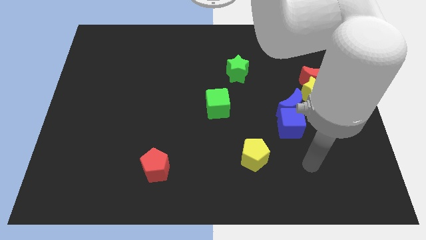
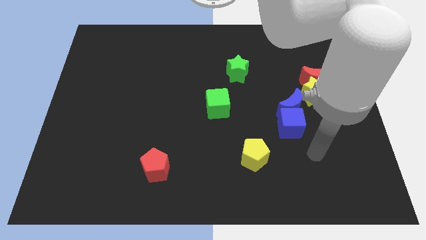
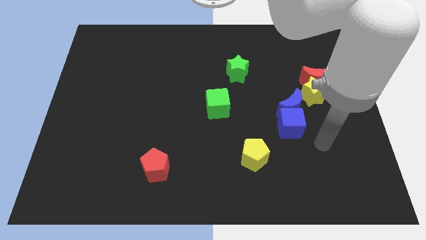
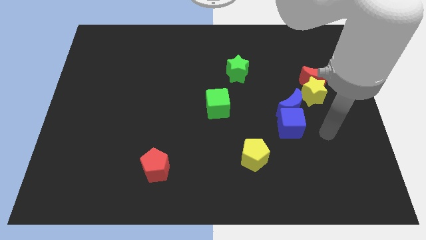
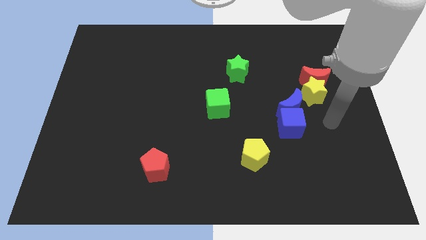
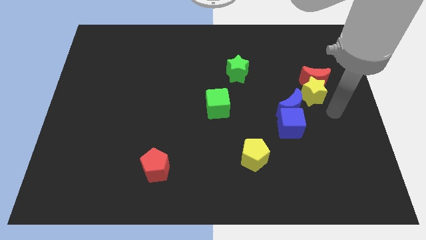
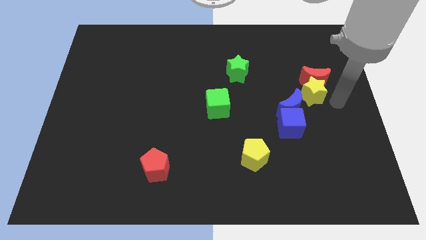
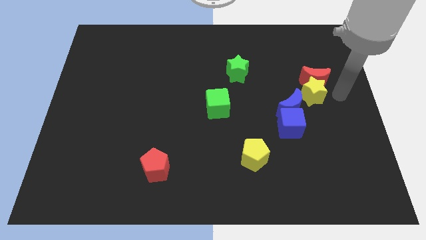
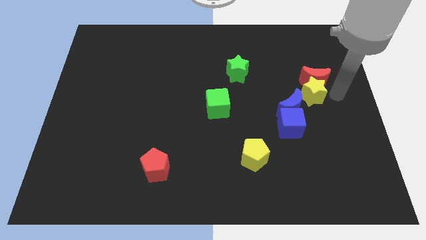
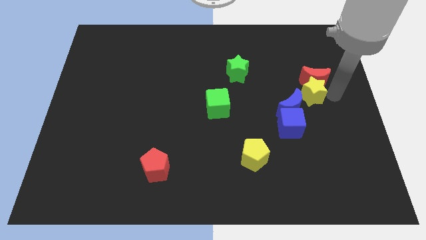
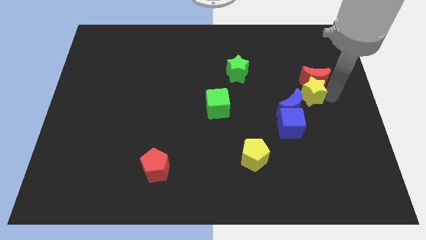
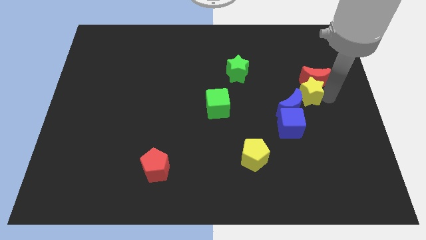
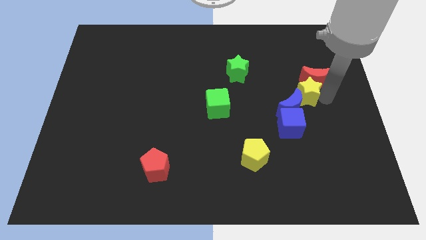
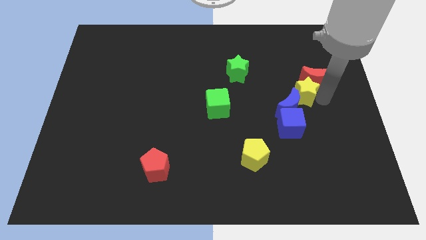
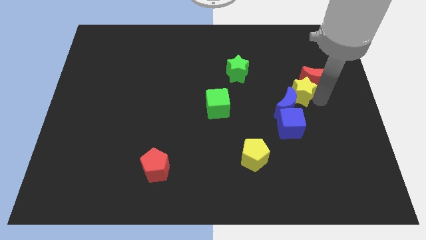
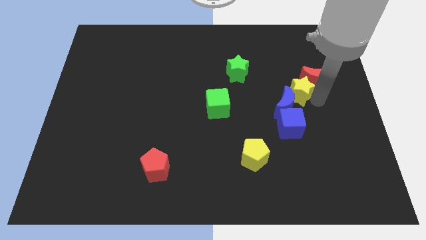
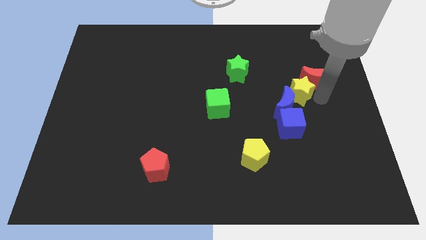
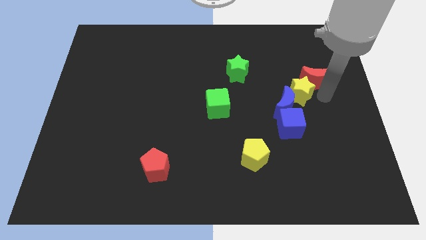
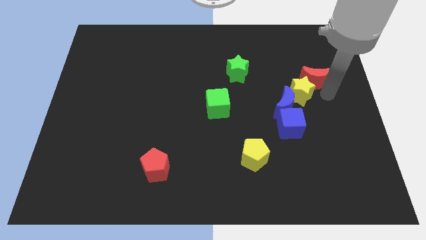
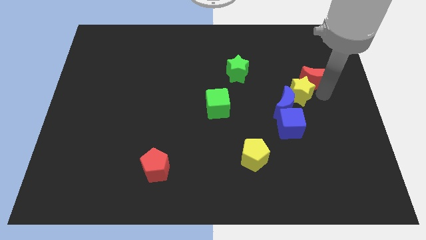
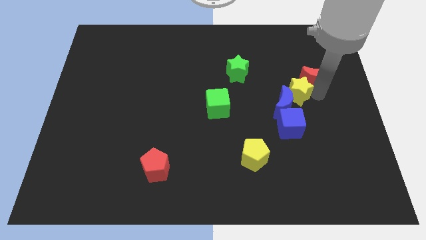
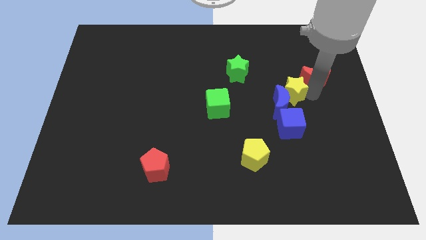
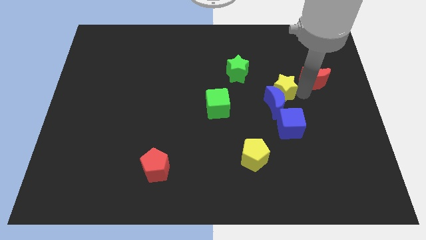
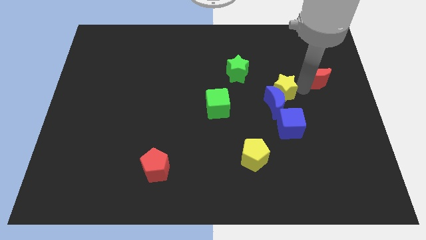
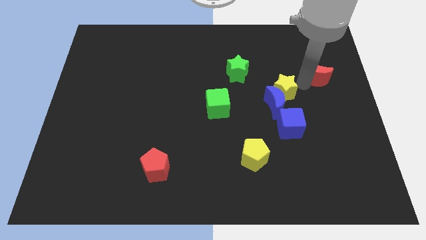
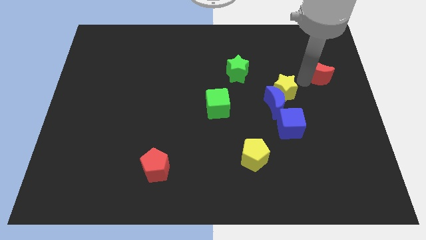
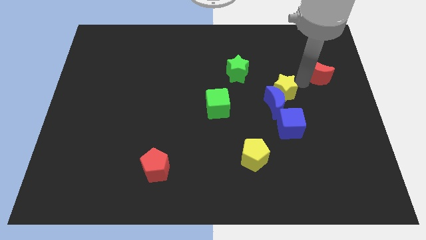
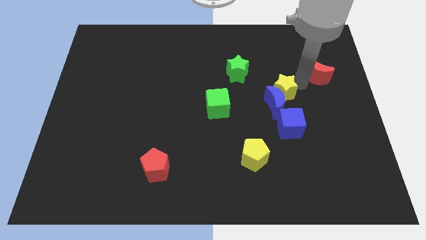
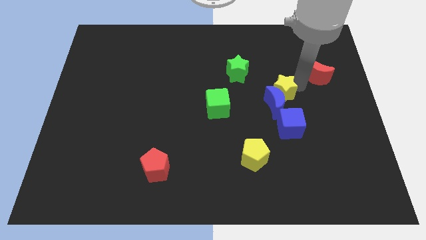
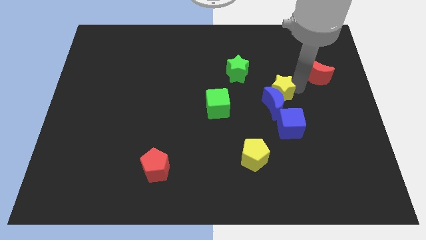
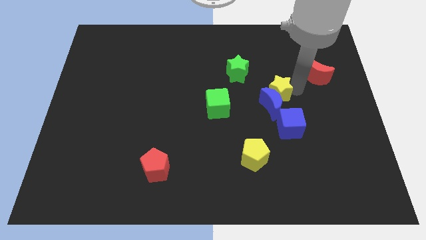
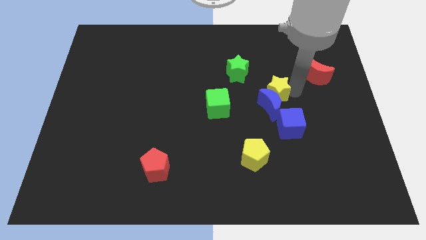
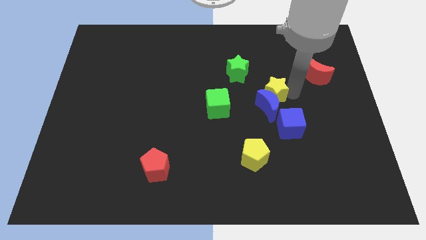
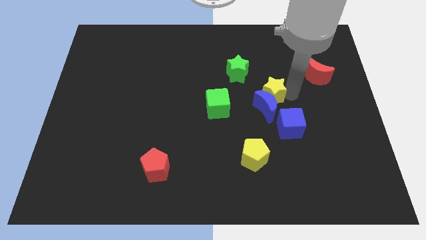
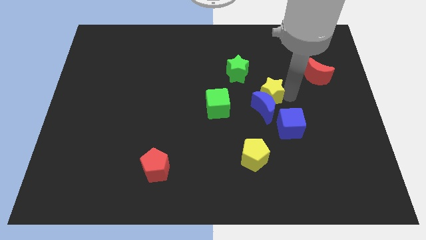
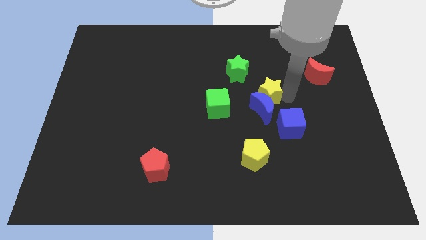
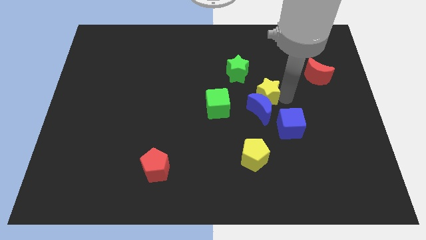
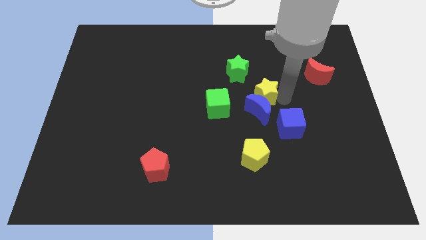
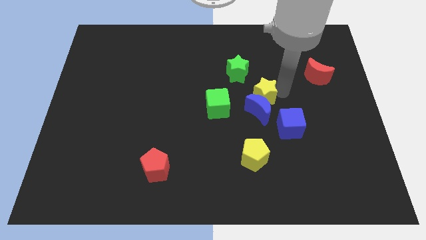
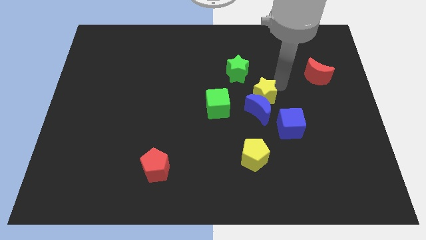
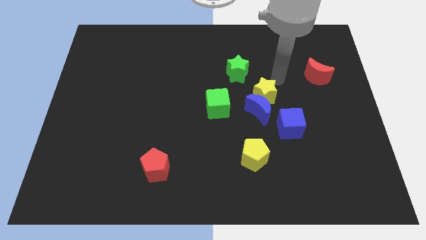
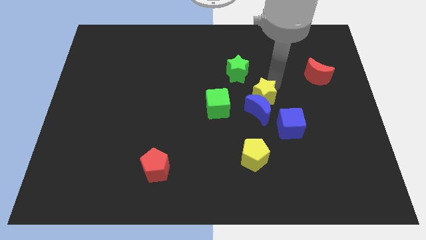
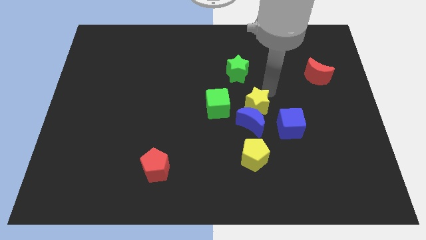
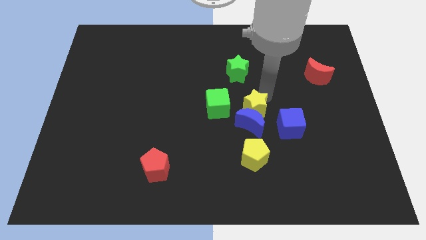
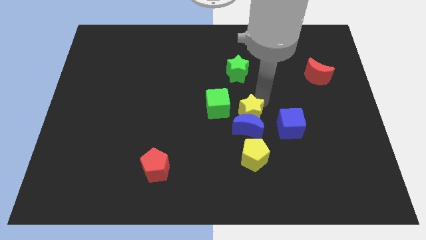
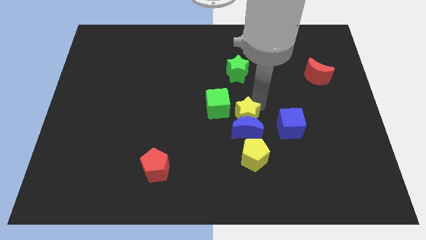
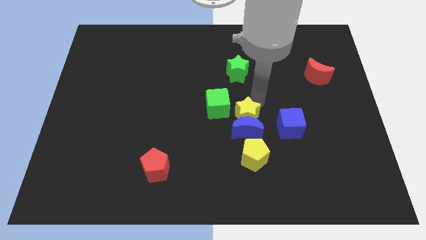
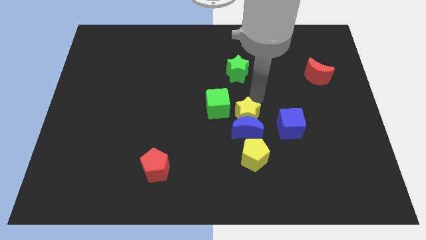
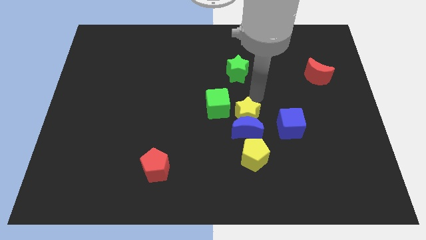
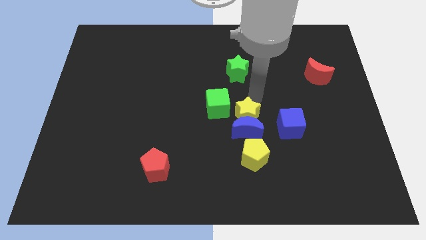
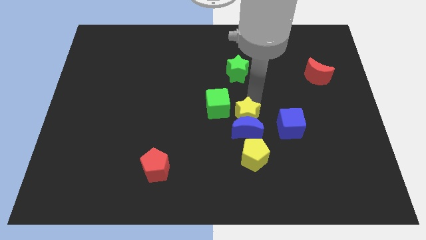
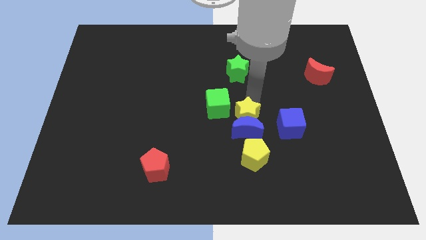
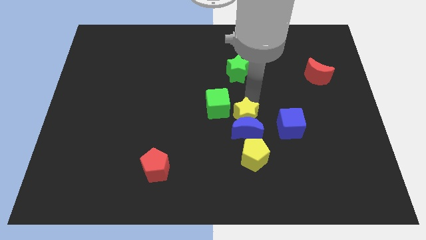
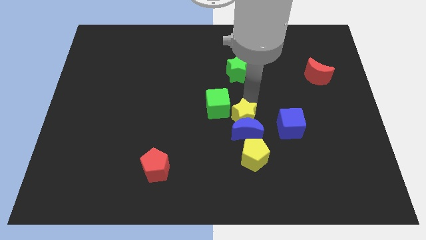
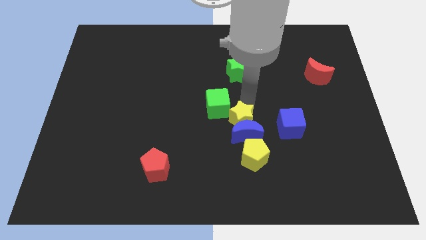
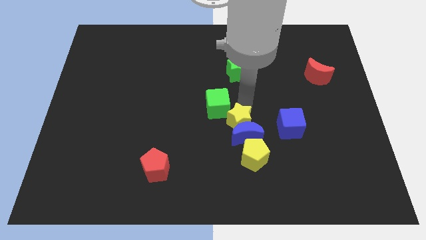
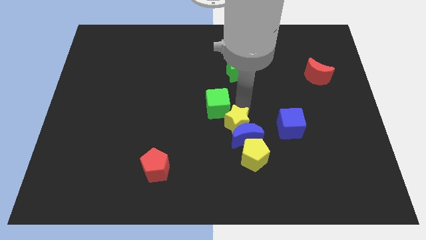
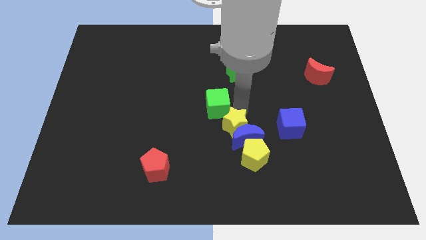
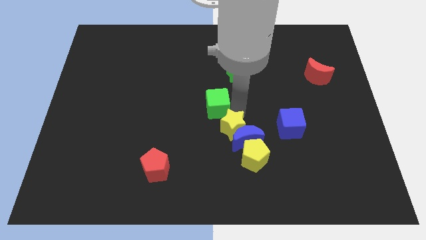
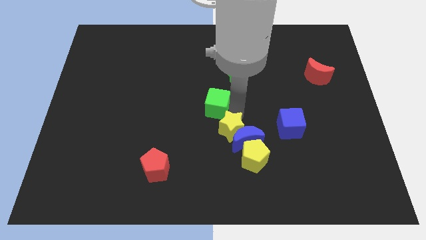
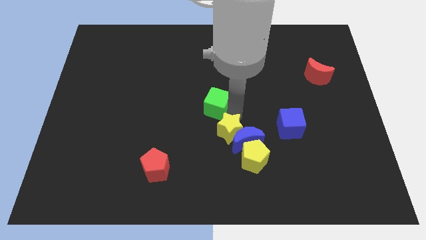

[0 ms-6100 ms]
push the yellow star downwards and to the left diagonally

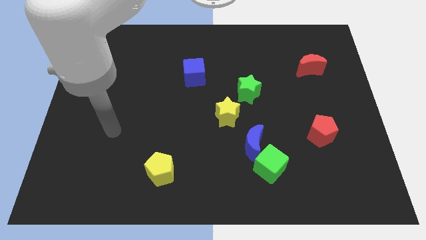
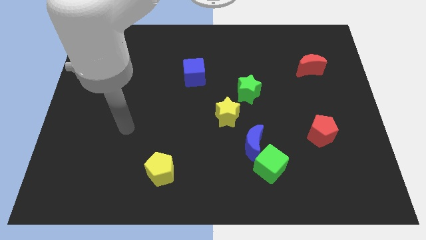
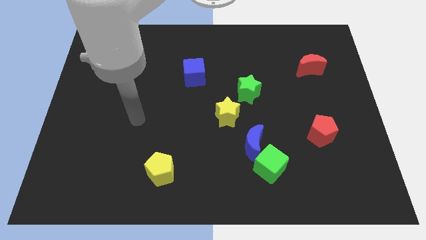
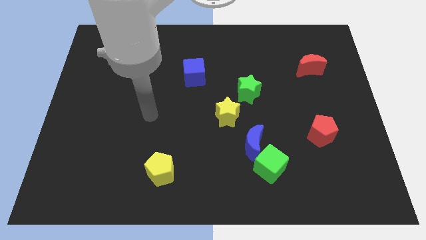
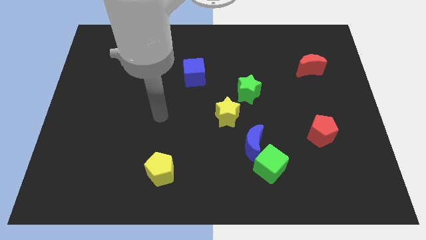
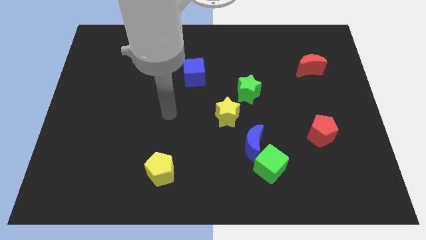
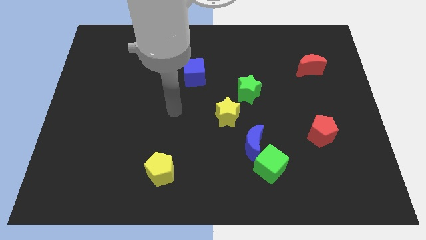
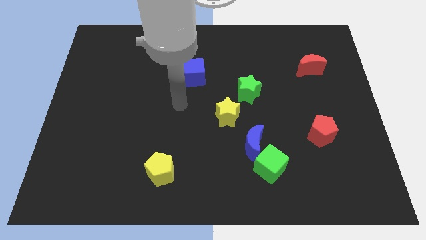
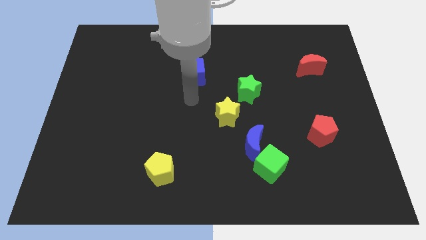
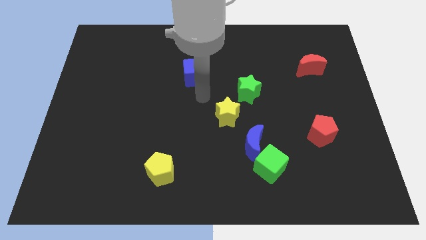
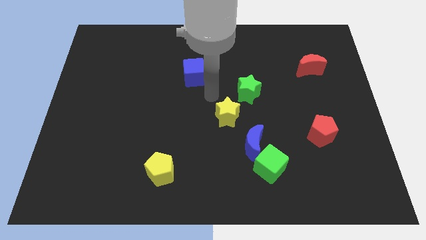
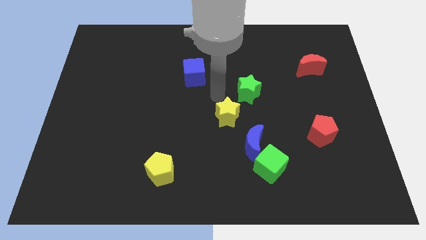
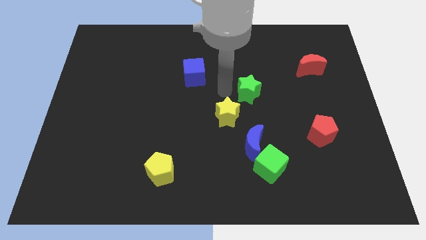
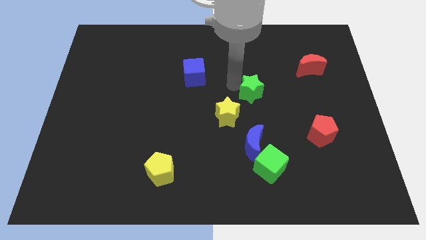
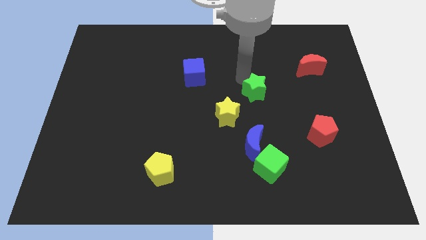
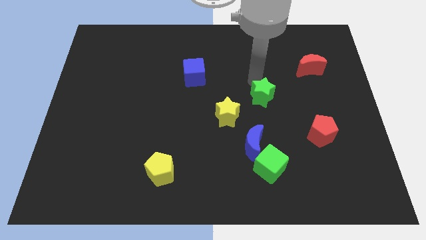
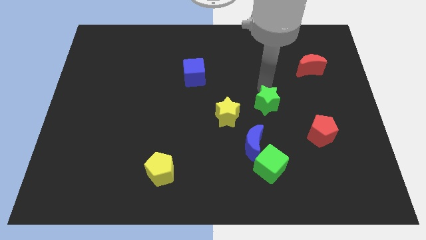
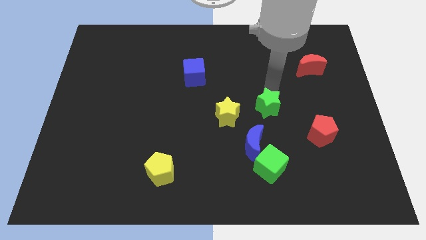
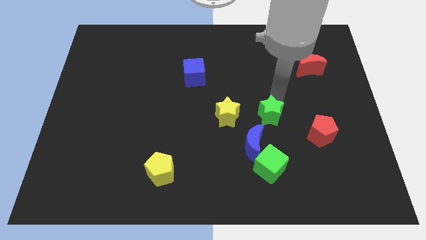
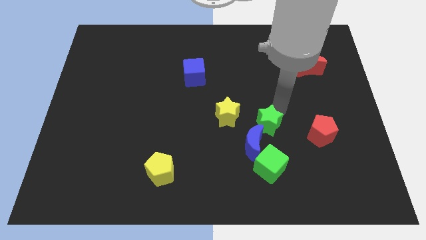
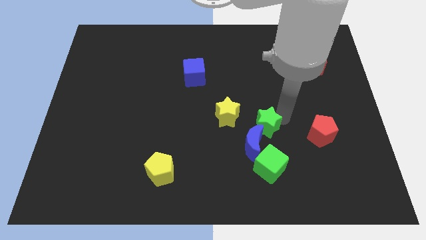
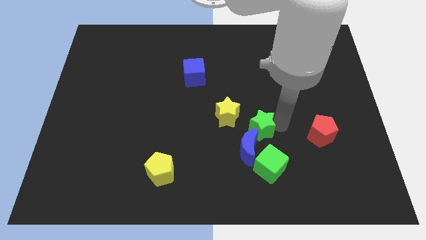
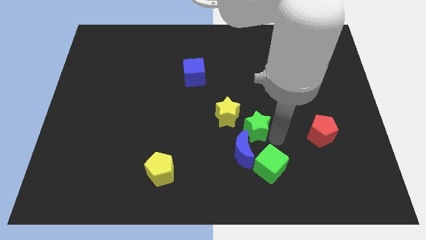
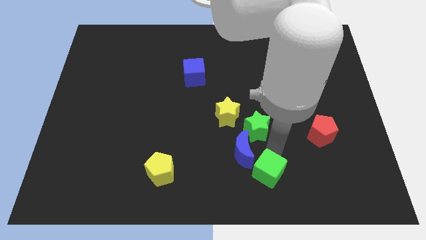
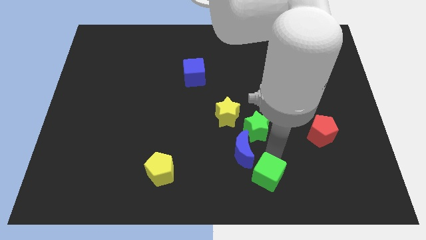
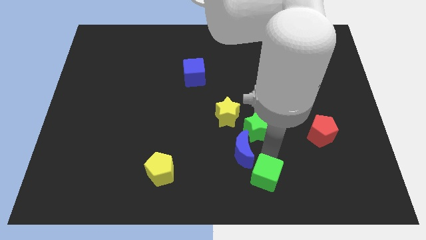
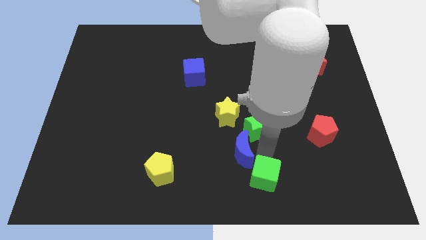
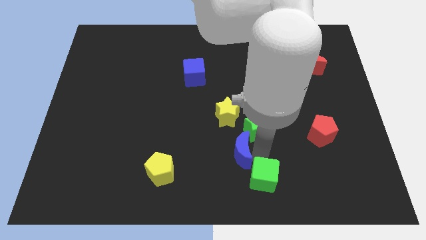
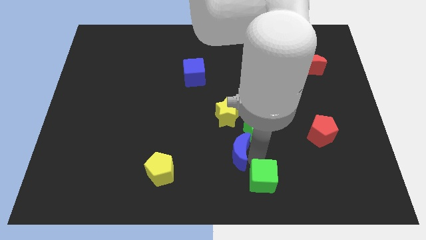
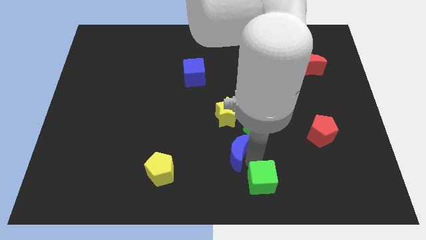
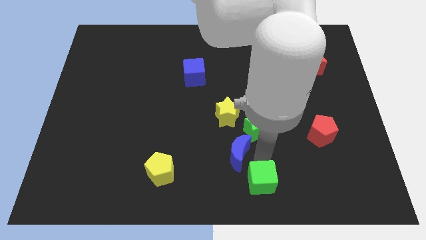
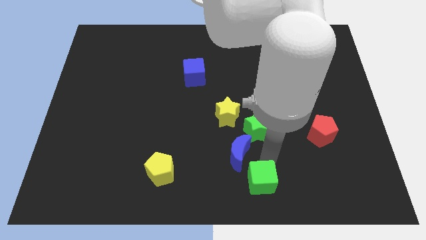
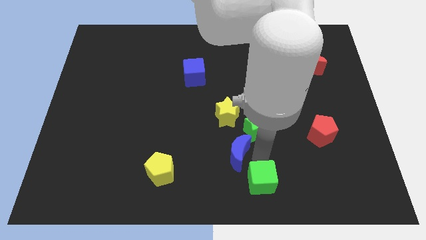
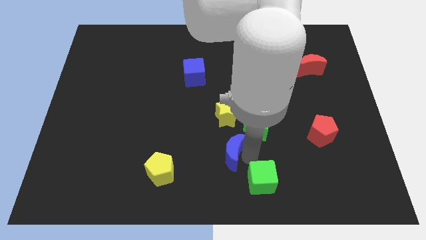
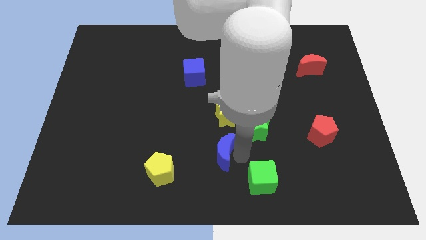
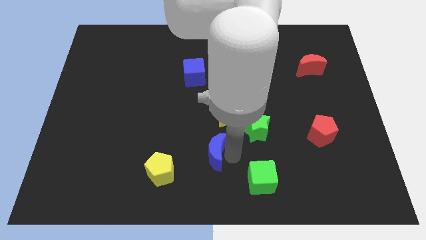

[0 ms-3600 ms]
slightly move the blue moon to the left
